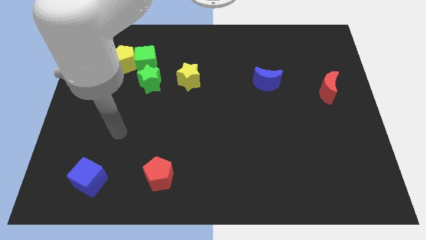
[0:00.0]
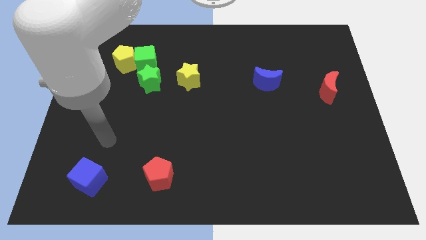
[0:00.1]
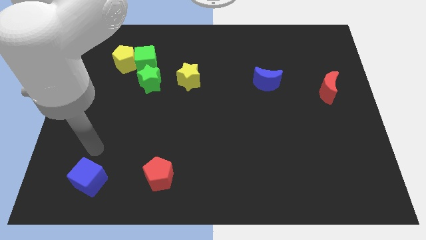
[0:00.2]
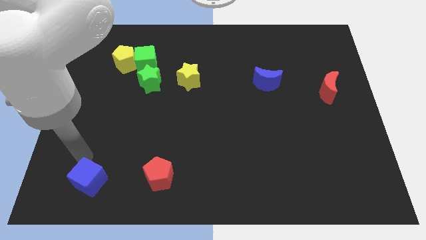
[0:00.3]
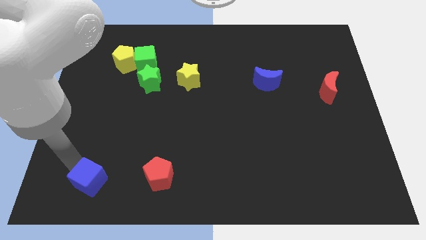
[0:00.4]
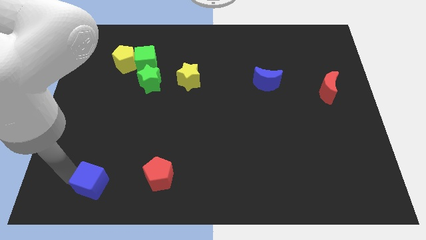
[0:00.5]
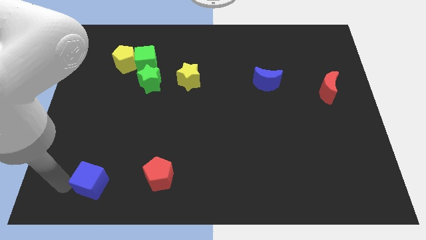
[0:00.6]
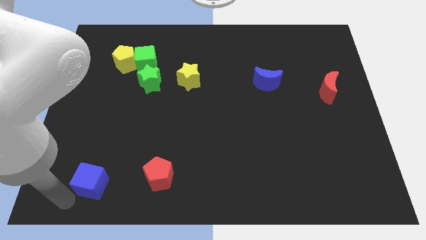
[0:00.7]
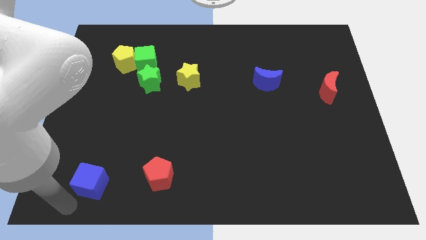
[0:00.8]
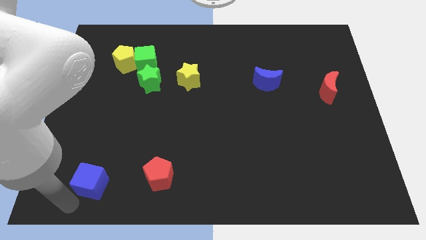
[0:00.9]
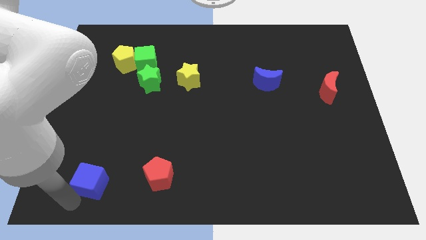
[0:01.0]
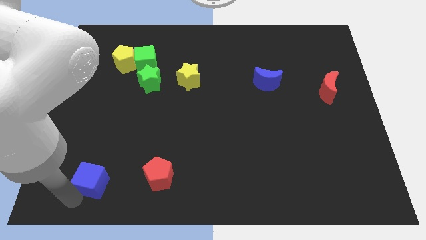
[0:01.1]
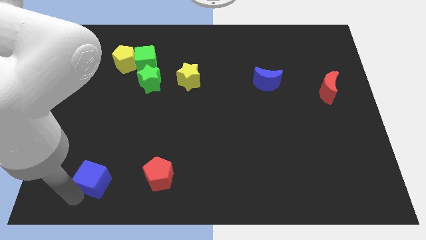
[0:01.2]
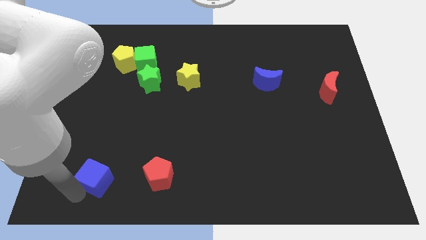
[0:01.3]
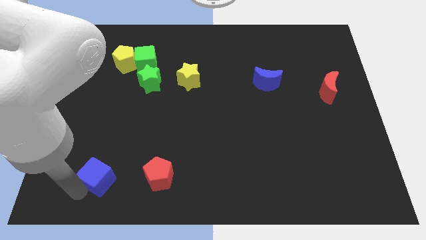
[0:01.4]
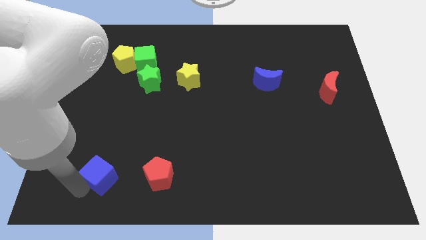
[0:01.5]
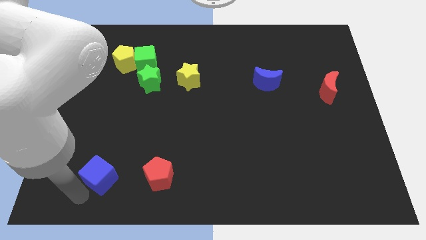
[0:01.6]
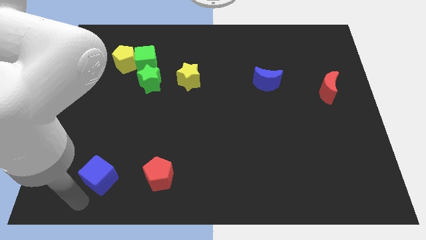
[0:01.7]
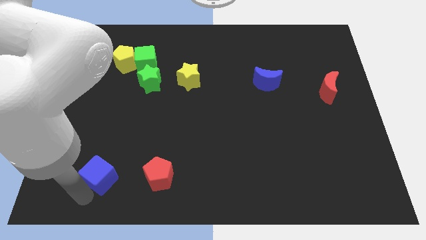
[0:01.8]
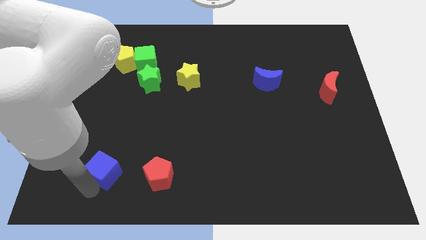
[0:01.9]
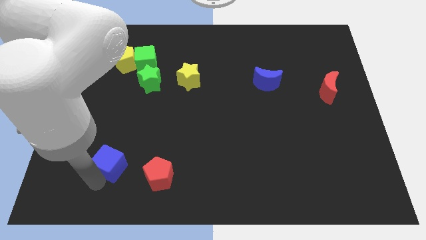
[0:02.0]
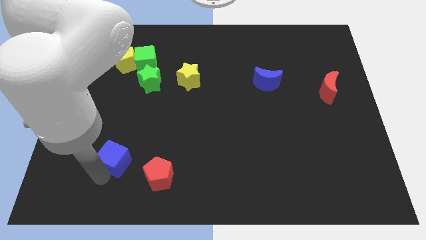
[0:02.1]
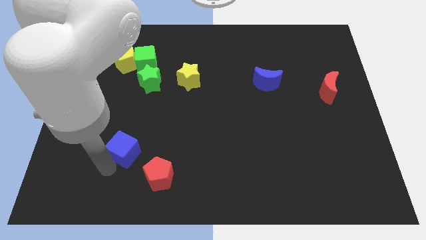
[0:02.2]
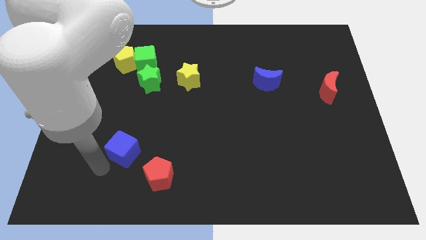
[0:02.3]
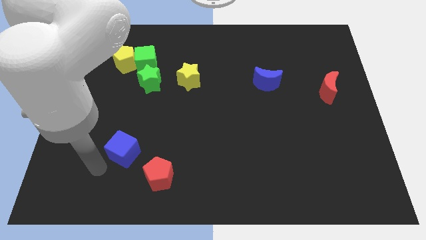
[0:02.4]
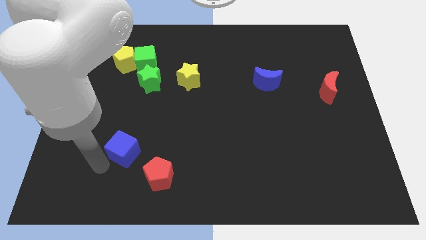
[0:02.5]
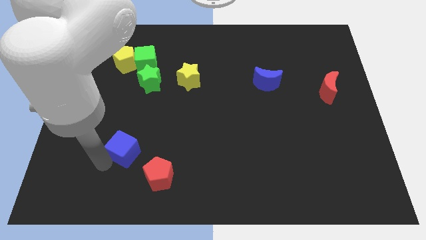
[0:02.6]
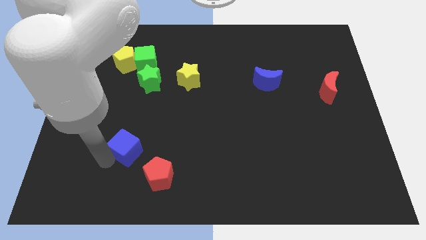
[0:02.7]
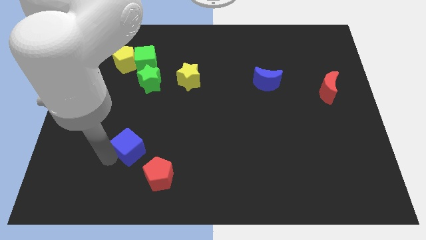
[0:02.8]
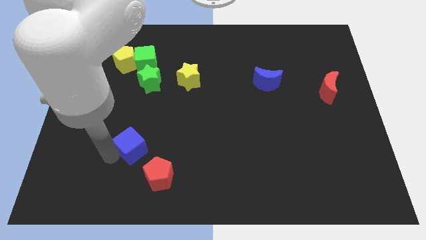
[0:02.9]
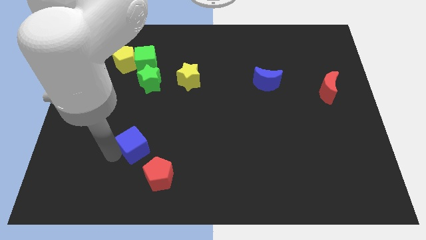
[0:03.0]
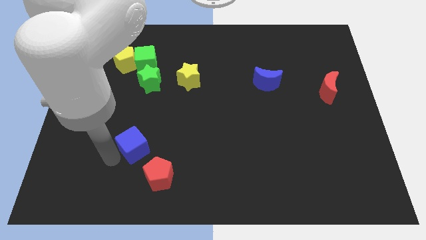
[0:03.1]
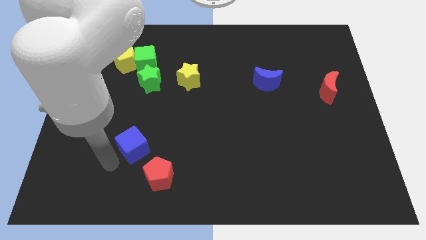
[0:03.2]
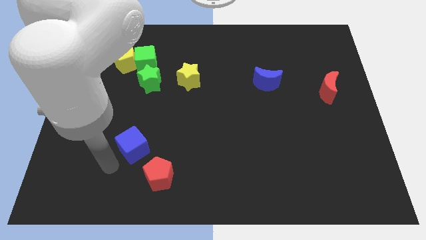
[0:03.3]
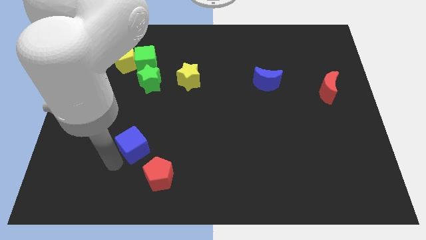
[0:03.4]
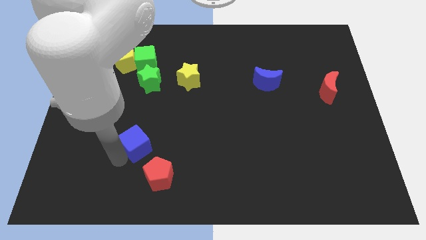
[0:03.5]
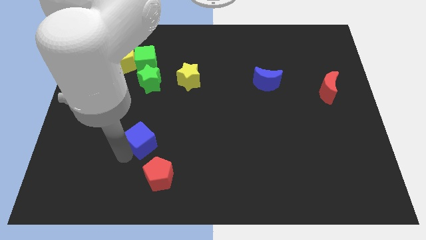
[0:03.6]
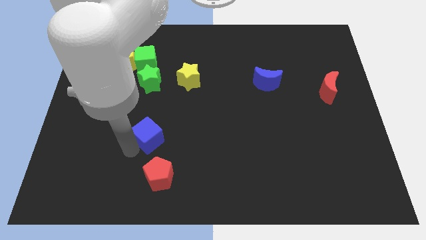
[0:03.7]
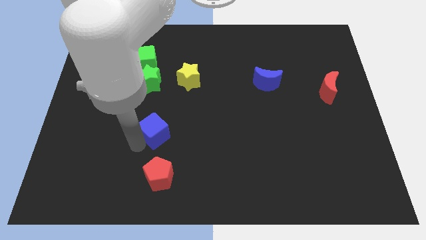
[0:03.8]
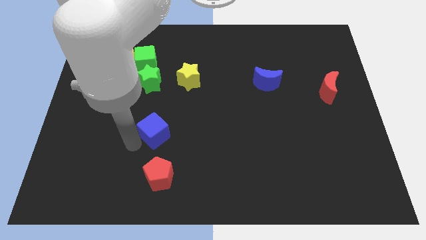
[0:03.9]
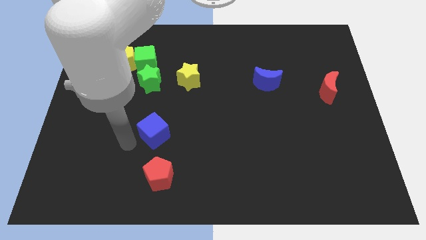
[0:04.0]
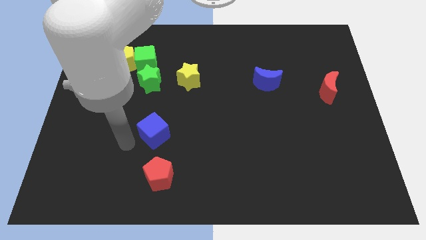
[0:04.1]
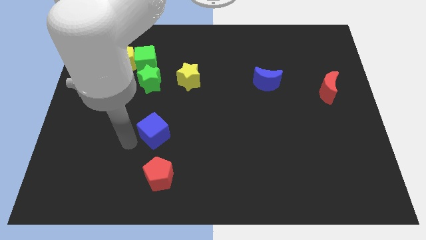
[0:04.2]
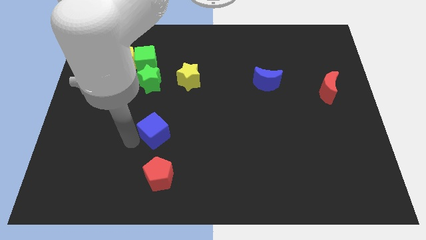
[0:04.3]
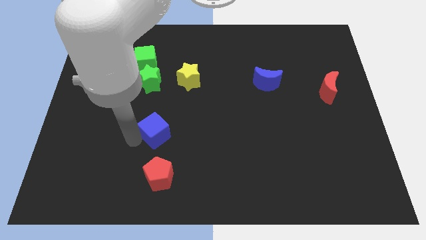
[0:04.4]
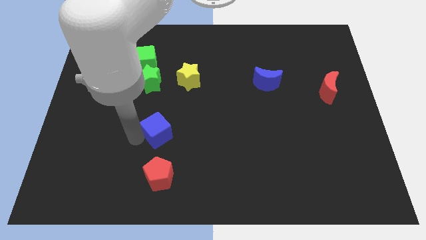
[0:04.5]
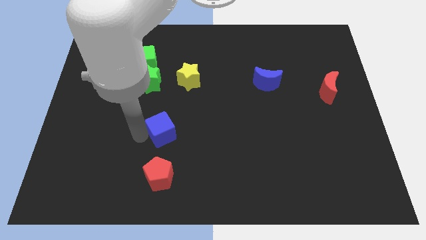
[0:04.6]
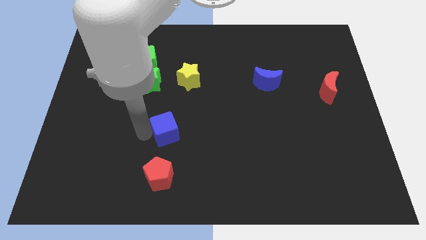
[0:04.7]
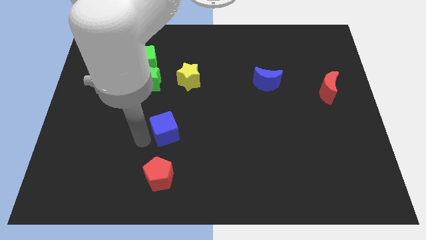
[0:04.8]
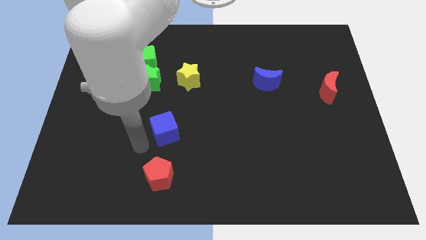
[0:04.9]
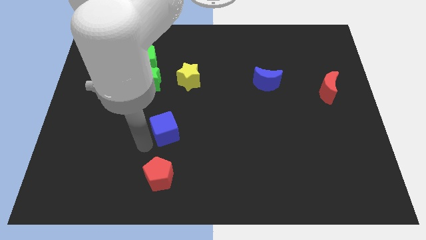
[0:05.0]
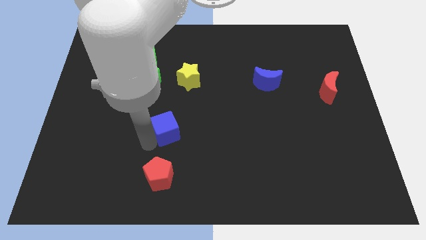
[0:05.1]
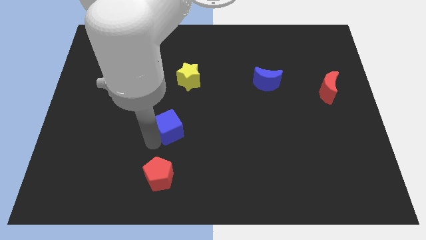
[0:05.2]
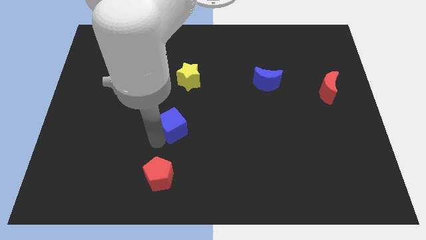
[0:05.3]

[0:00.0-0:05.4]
move the blue cube to the middle

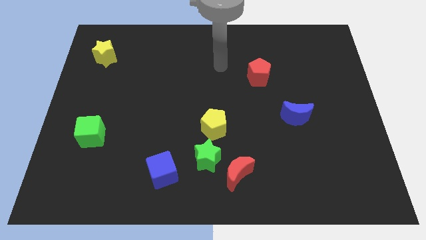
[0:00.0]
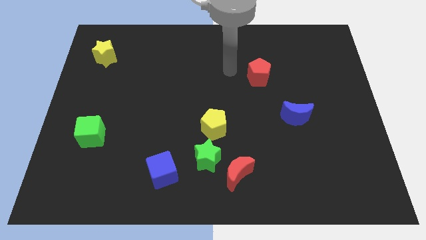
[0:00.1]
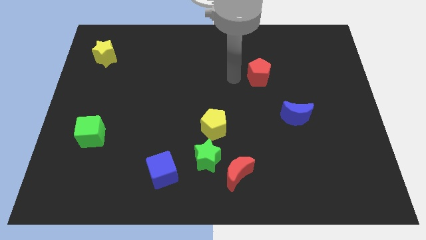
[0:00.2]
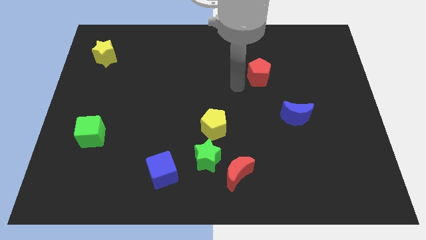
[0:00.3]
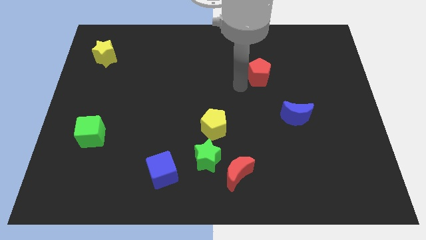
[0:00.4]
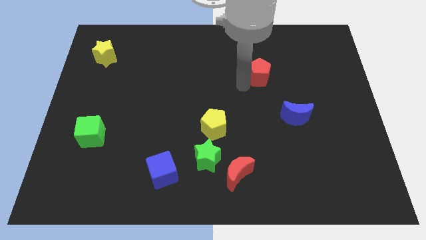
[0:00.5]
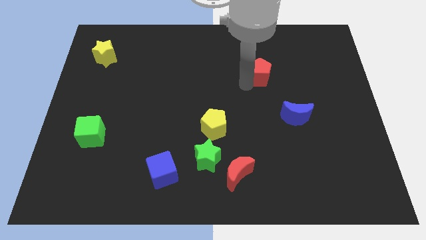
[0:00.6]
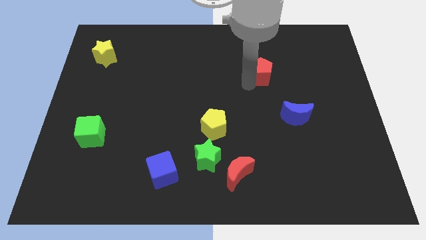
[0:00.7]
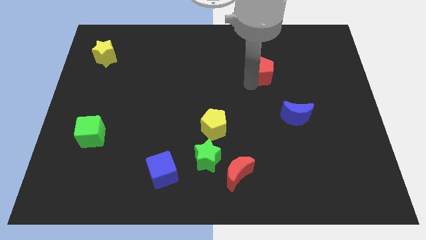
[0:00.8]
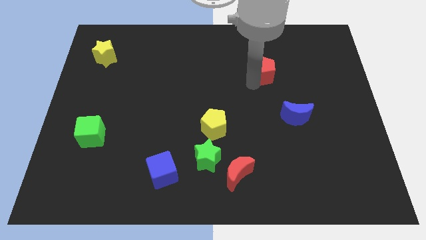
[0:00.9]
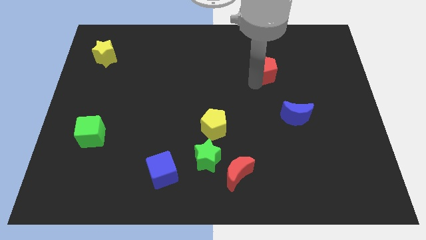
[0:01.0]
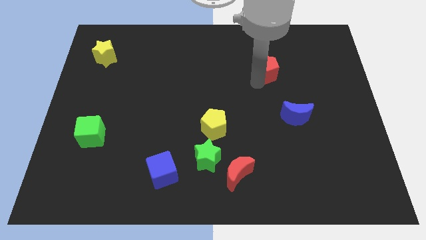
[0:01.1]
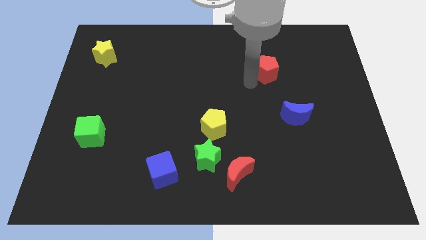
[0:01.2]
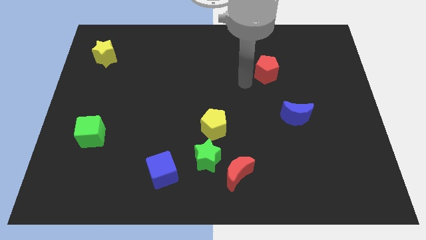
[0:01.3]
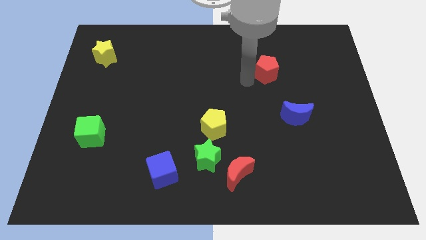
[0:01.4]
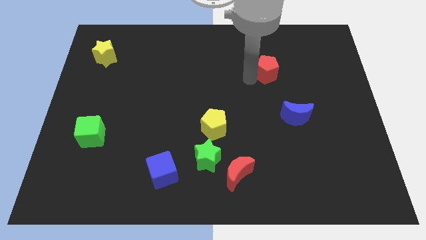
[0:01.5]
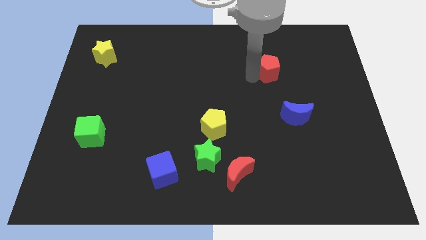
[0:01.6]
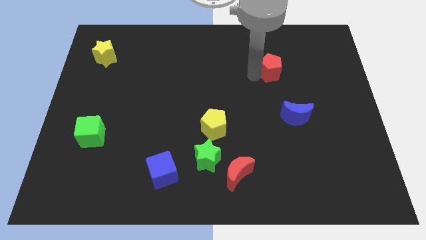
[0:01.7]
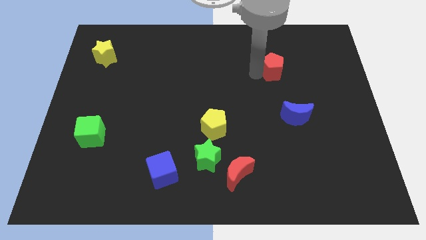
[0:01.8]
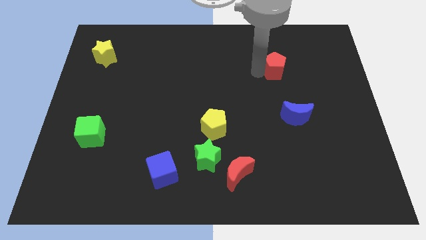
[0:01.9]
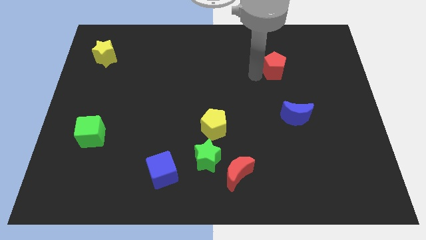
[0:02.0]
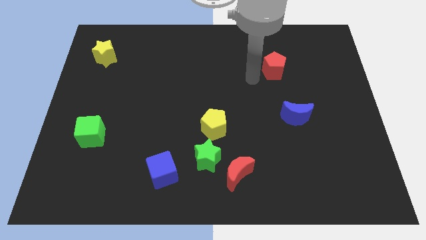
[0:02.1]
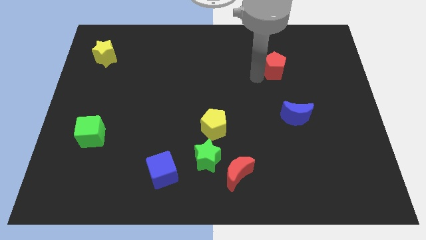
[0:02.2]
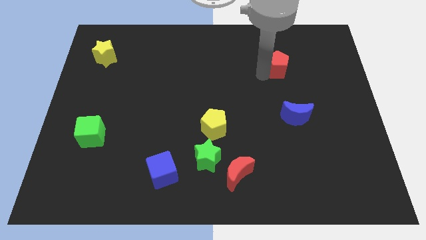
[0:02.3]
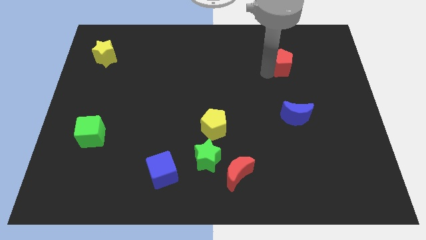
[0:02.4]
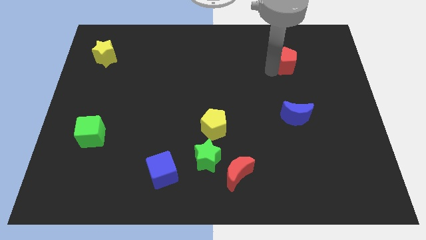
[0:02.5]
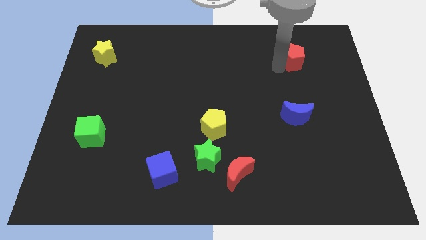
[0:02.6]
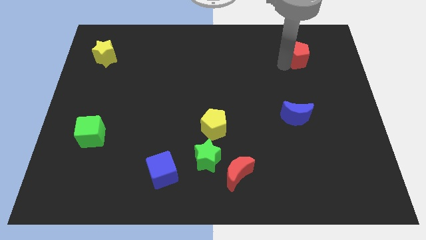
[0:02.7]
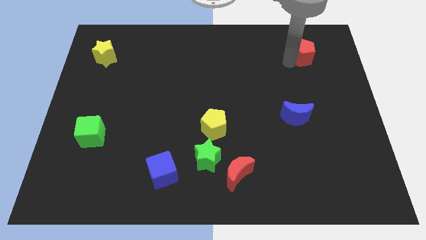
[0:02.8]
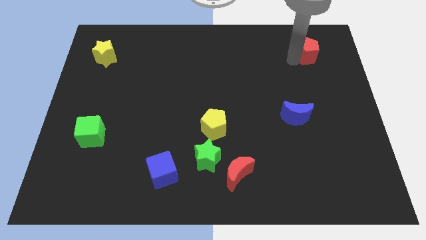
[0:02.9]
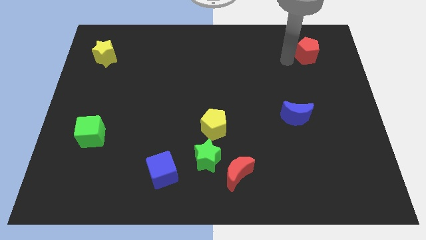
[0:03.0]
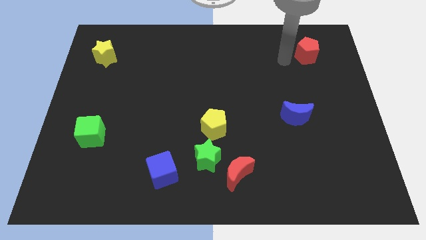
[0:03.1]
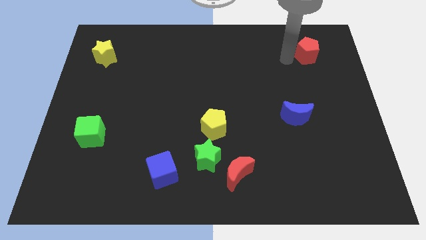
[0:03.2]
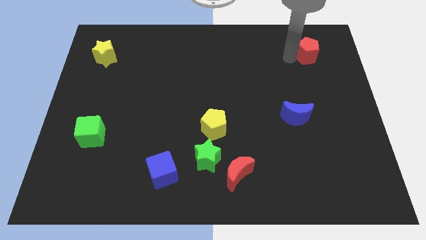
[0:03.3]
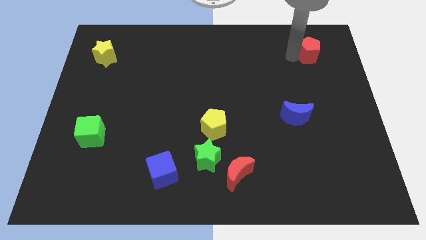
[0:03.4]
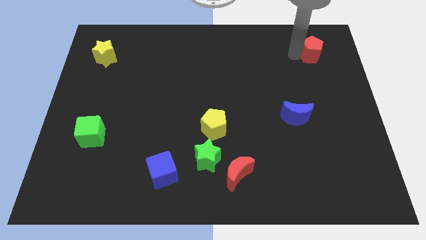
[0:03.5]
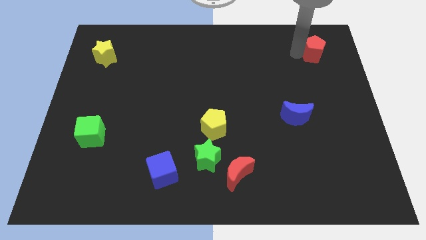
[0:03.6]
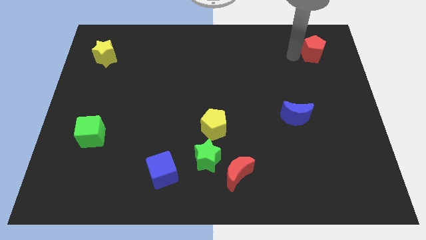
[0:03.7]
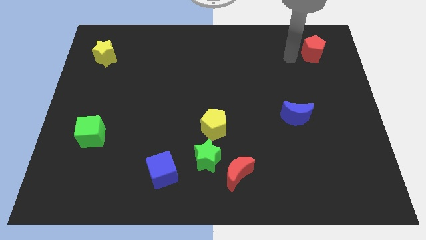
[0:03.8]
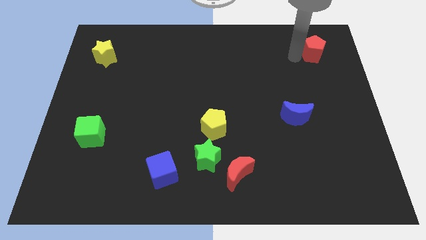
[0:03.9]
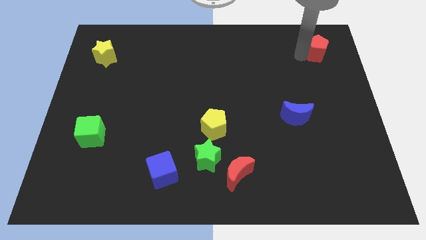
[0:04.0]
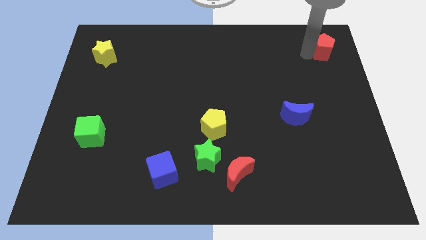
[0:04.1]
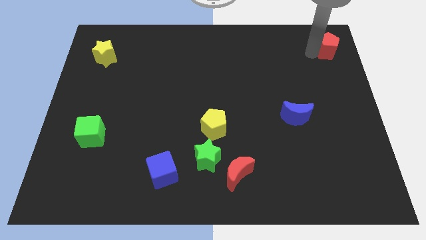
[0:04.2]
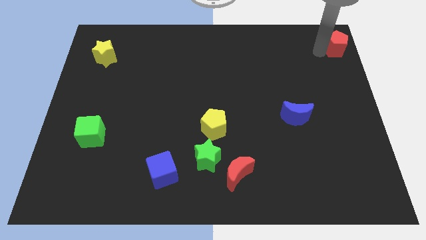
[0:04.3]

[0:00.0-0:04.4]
put the red pentagon to the top right of the board
